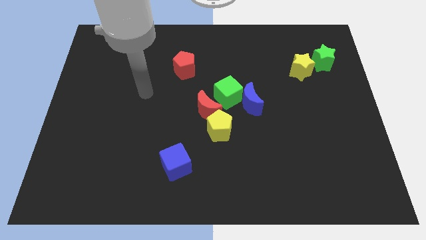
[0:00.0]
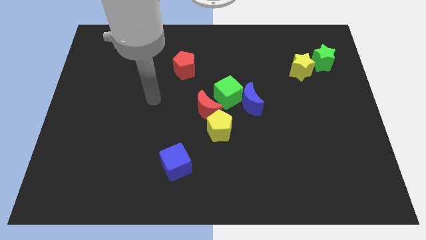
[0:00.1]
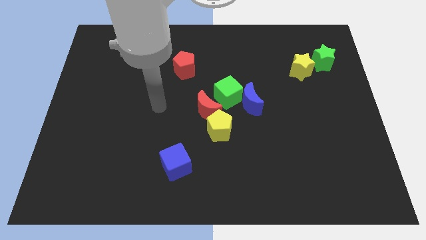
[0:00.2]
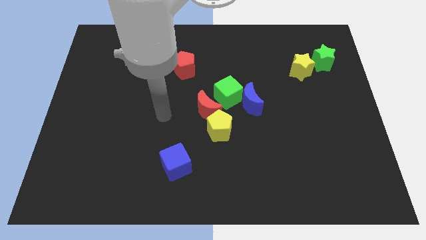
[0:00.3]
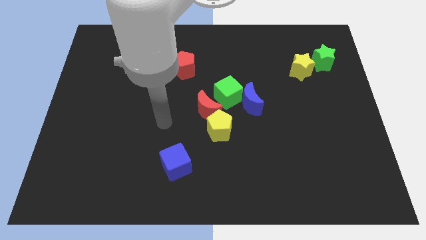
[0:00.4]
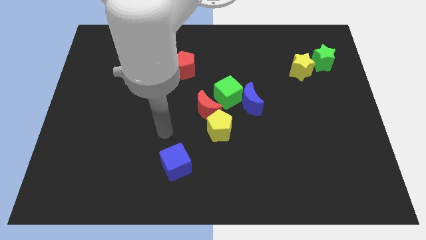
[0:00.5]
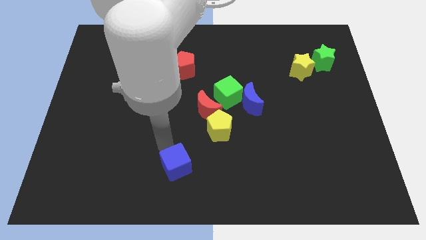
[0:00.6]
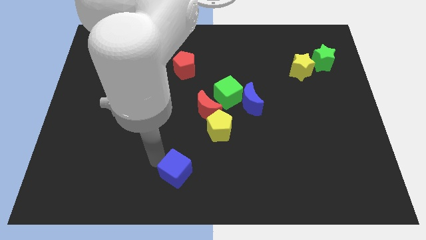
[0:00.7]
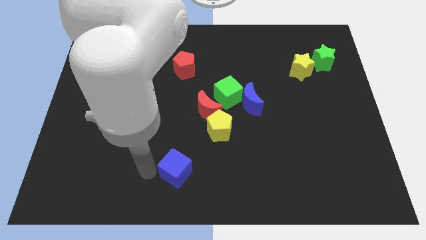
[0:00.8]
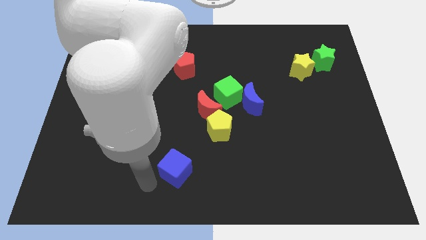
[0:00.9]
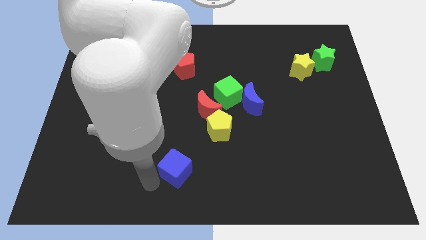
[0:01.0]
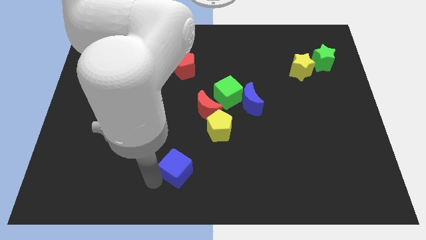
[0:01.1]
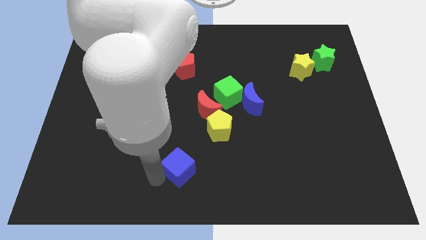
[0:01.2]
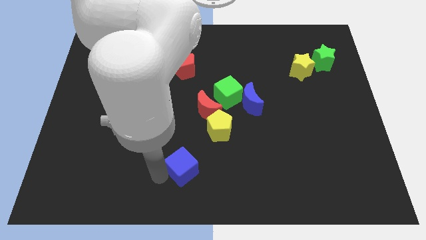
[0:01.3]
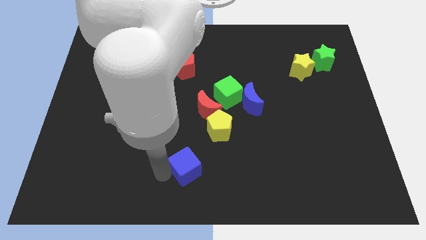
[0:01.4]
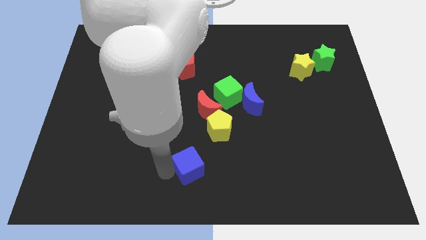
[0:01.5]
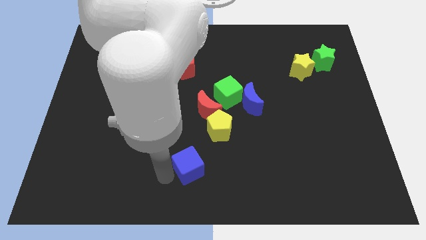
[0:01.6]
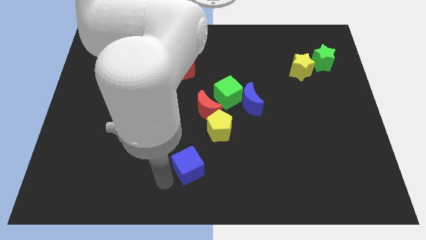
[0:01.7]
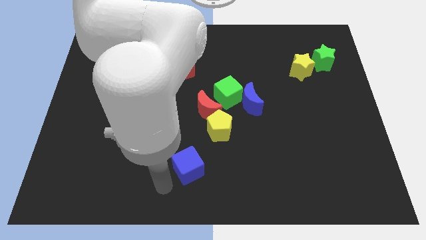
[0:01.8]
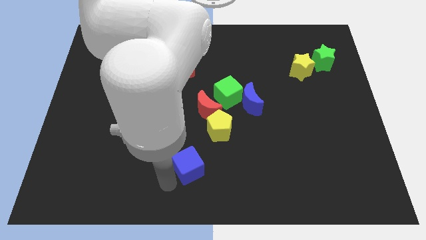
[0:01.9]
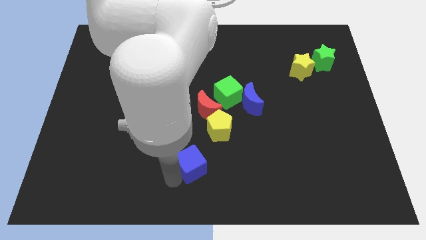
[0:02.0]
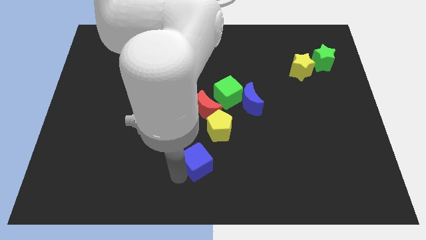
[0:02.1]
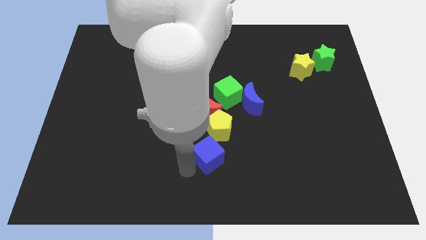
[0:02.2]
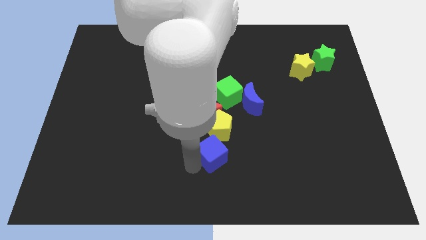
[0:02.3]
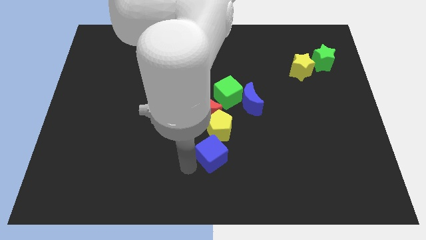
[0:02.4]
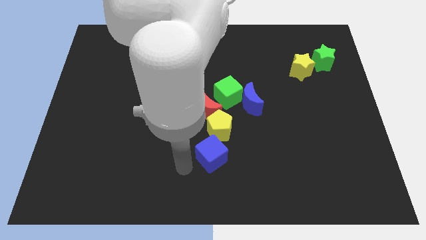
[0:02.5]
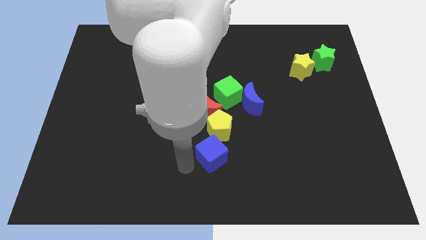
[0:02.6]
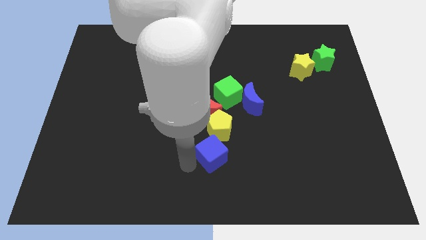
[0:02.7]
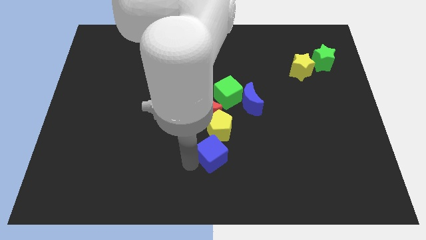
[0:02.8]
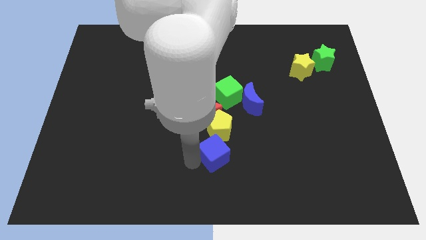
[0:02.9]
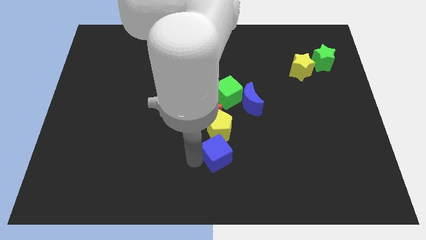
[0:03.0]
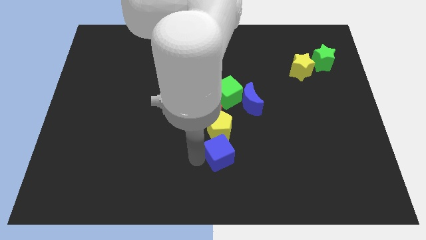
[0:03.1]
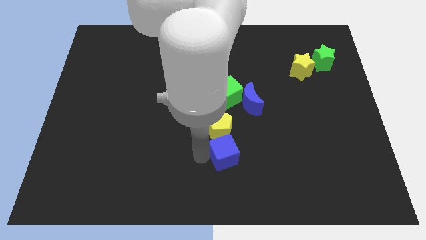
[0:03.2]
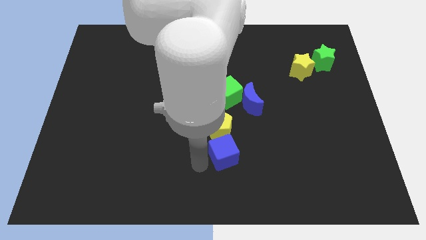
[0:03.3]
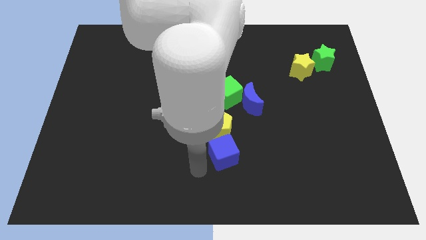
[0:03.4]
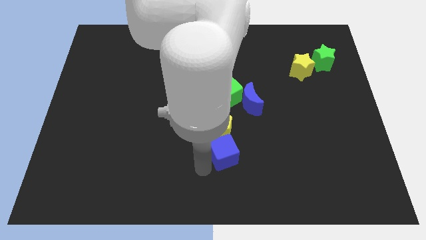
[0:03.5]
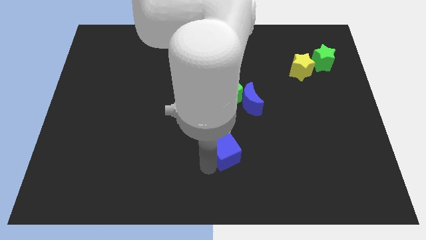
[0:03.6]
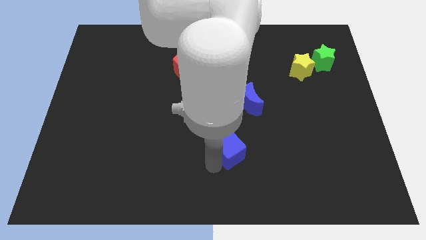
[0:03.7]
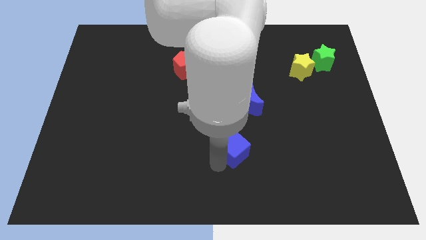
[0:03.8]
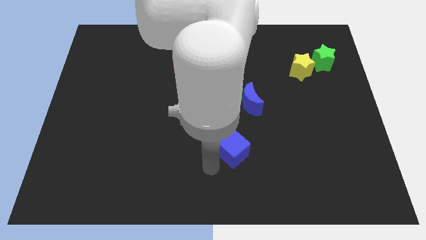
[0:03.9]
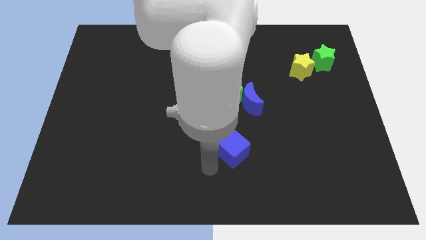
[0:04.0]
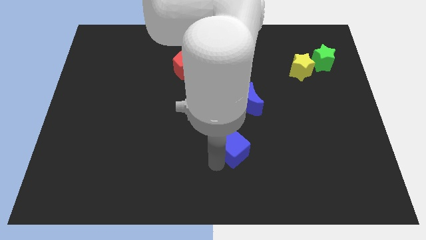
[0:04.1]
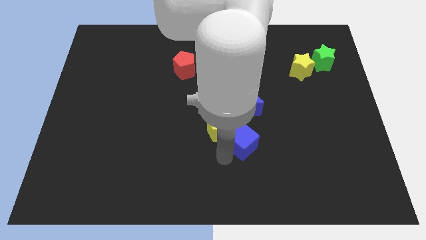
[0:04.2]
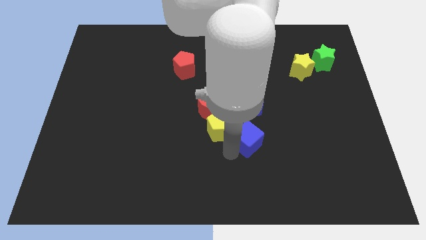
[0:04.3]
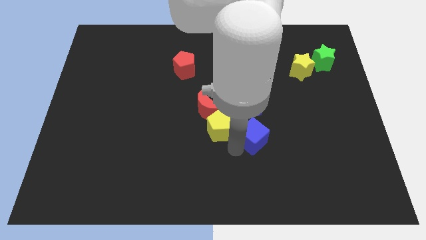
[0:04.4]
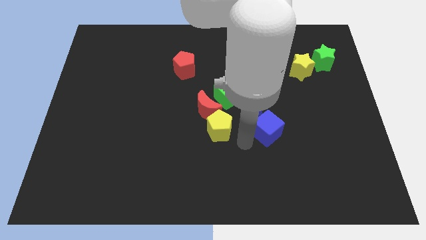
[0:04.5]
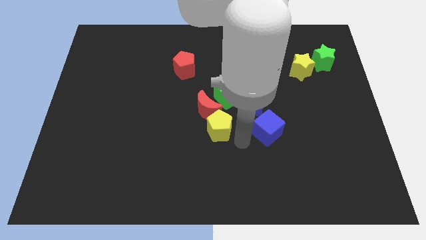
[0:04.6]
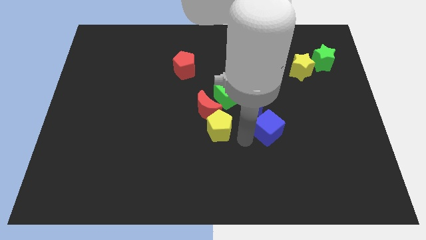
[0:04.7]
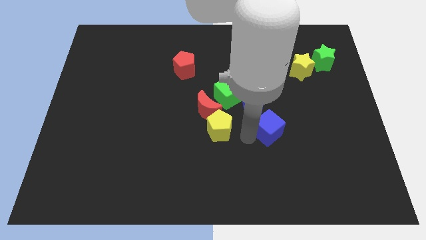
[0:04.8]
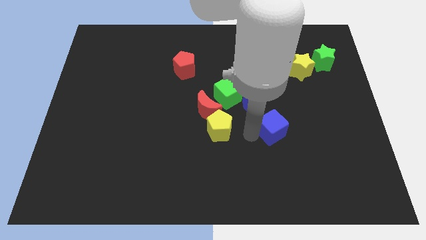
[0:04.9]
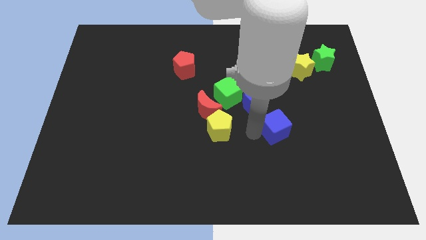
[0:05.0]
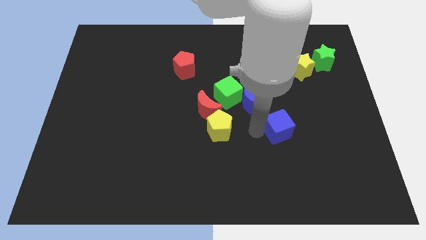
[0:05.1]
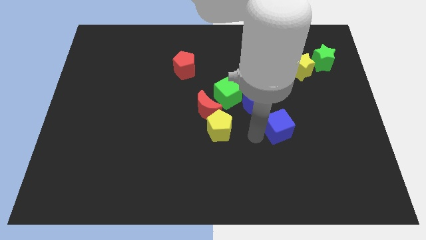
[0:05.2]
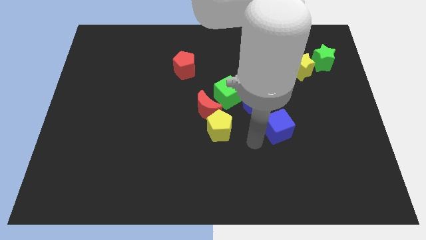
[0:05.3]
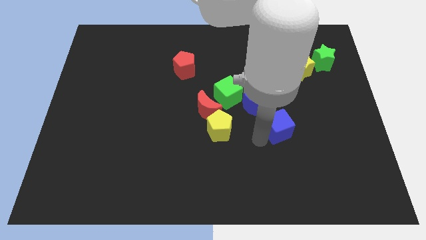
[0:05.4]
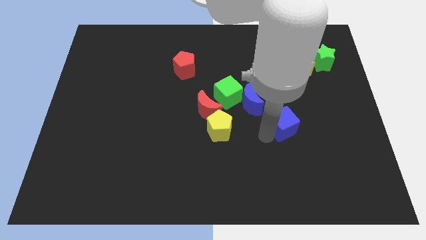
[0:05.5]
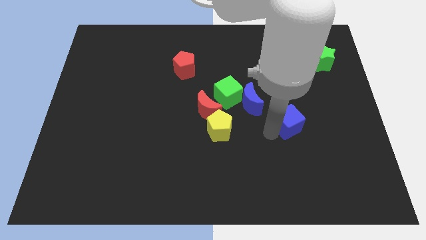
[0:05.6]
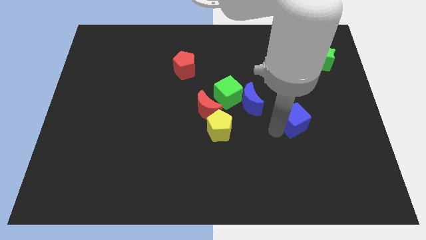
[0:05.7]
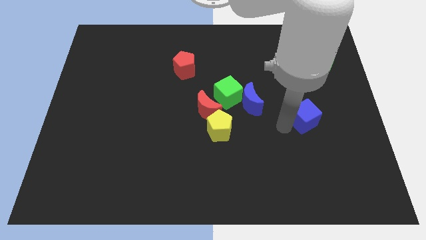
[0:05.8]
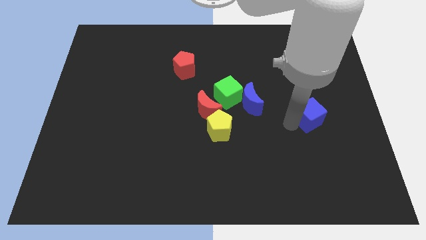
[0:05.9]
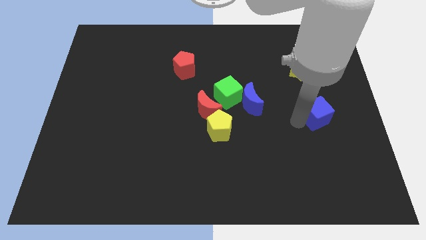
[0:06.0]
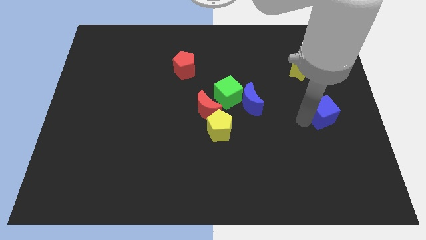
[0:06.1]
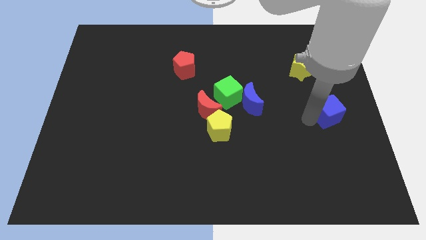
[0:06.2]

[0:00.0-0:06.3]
push the blue cube to the right side
